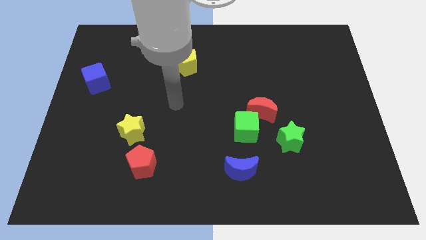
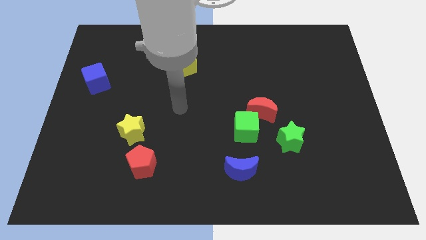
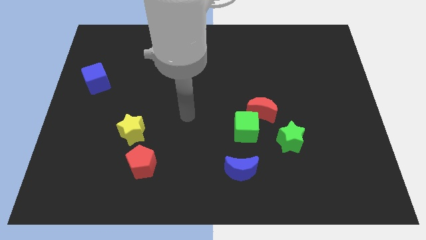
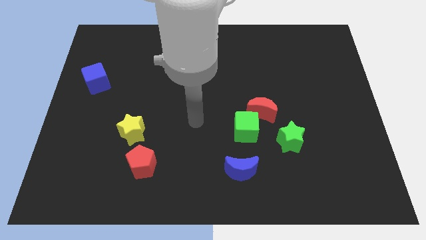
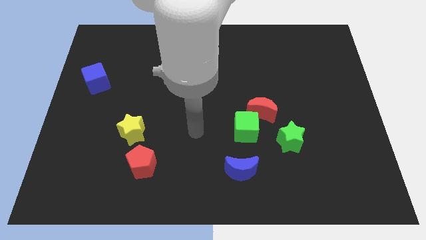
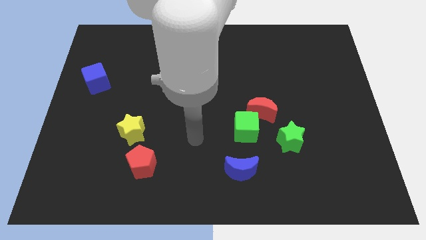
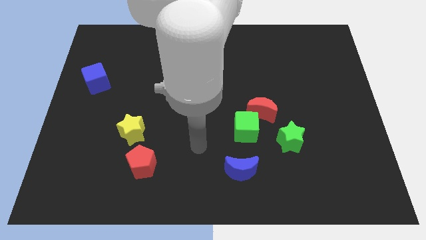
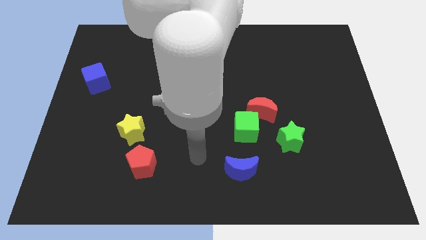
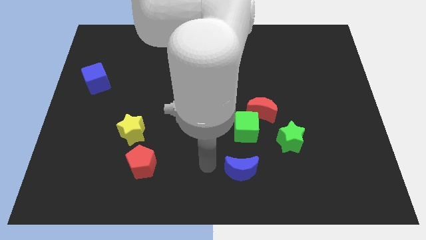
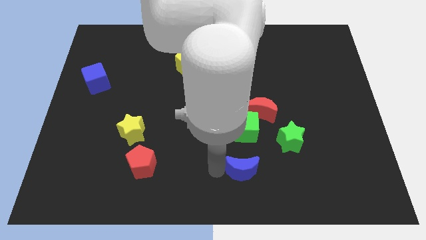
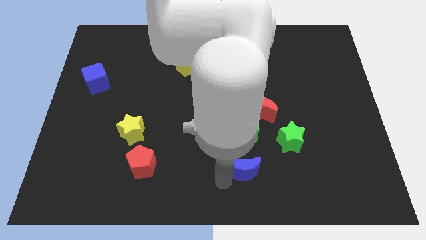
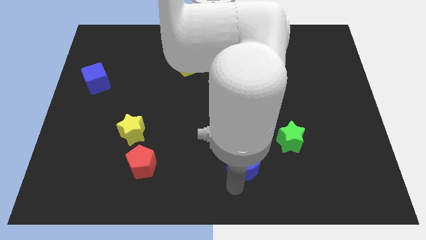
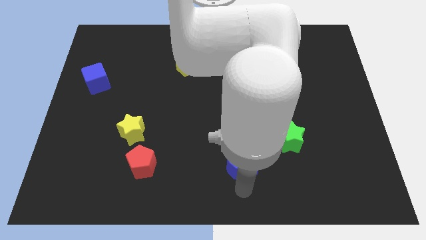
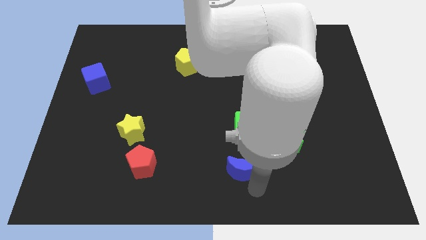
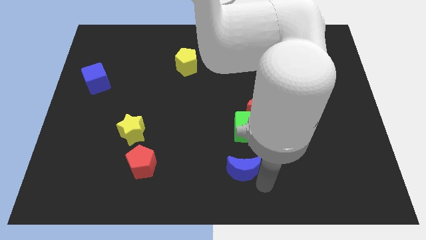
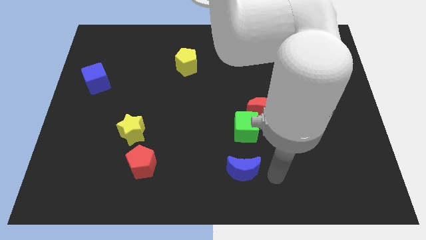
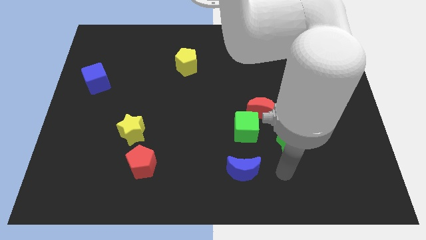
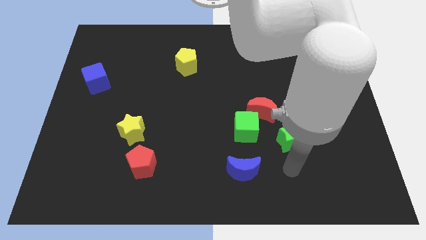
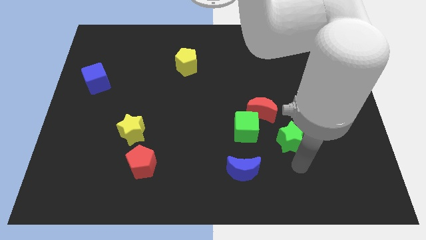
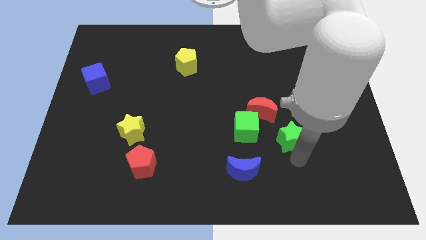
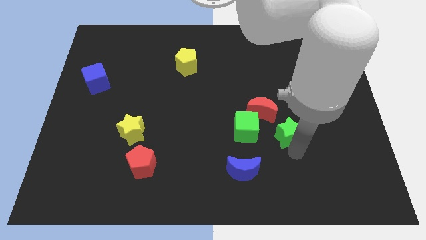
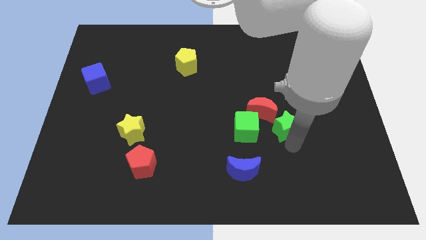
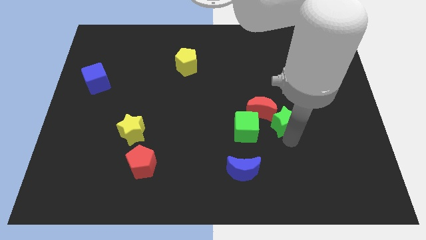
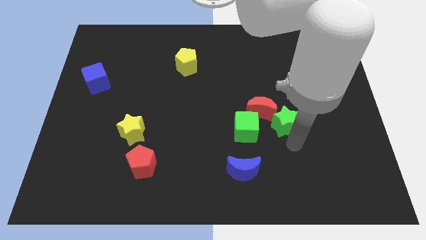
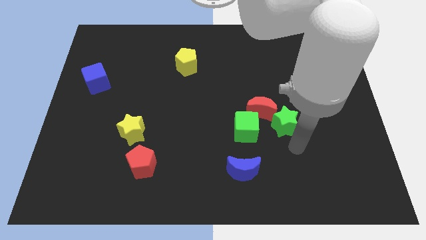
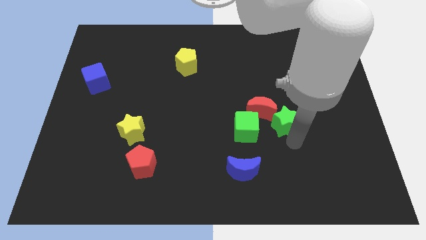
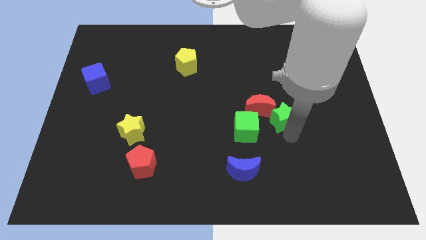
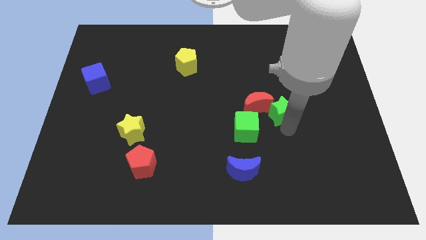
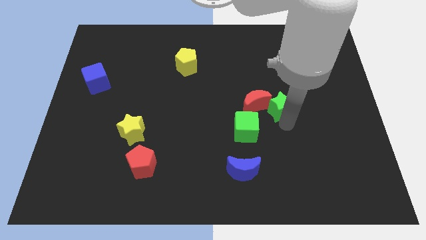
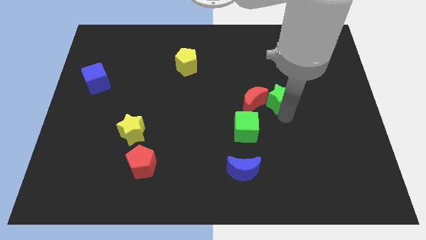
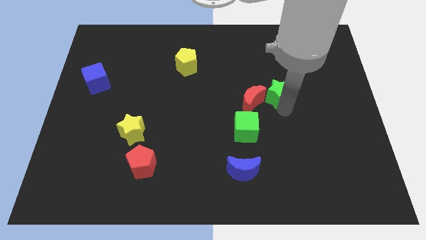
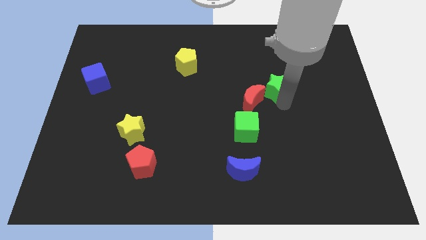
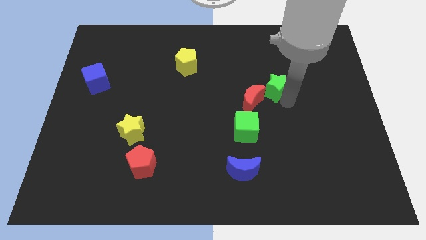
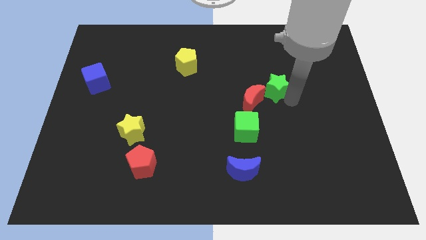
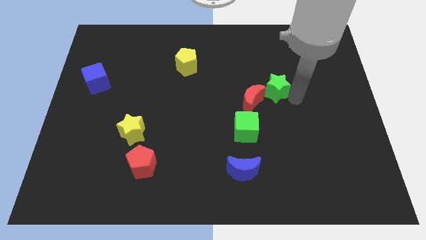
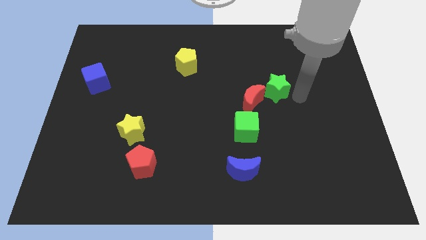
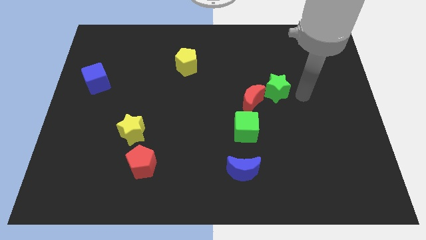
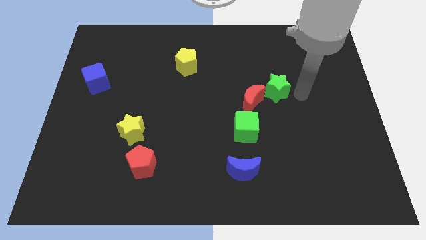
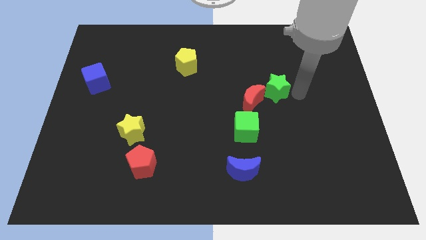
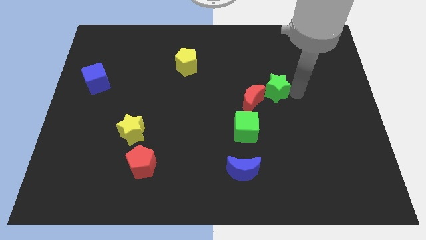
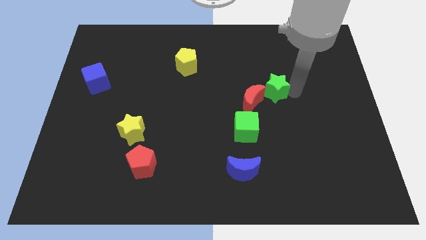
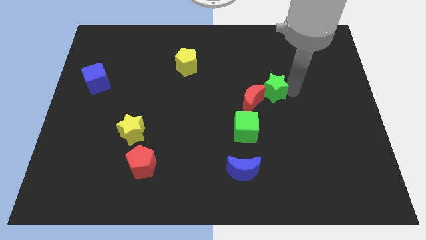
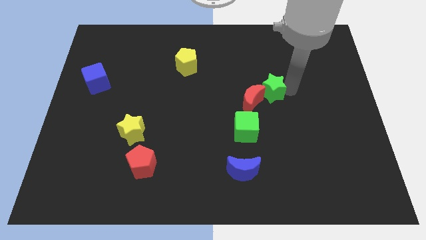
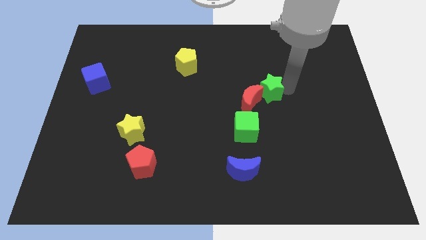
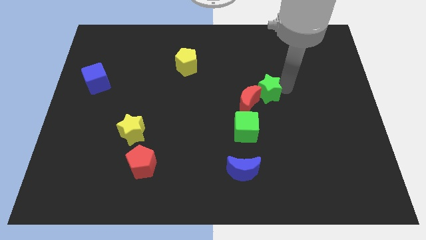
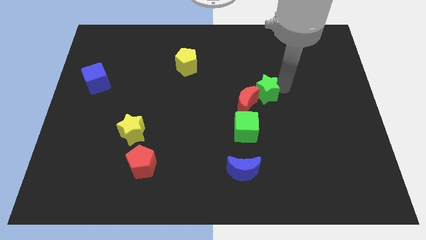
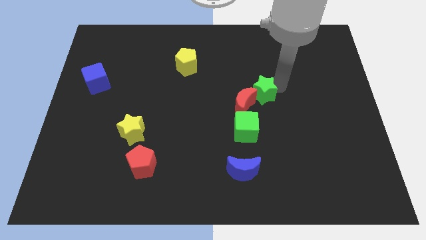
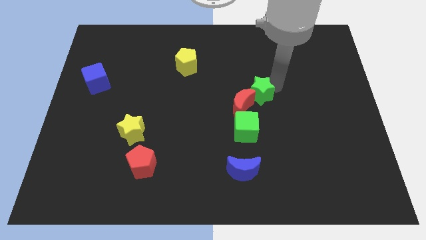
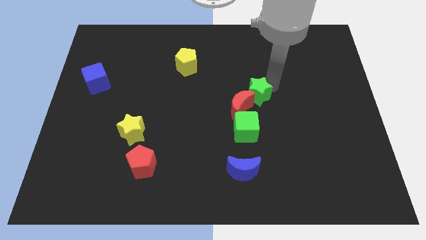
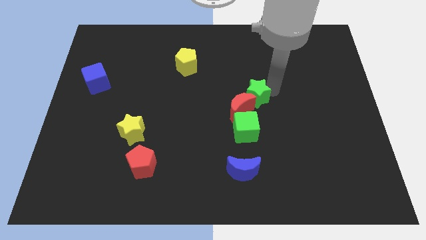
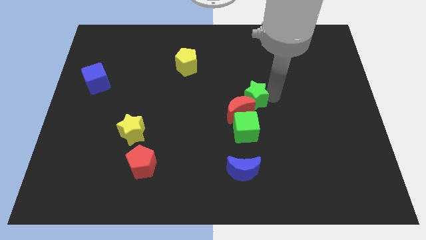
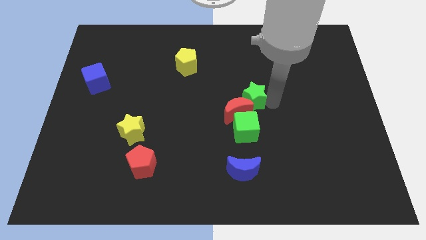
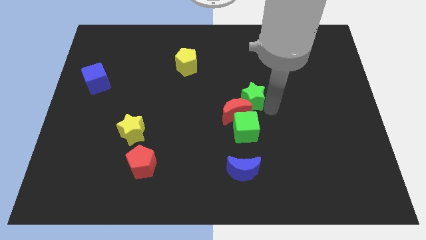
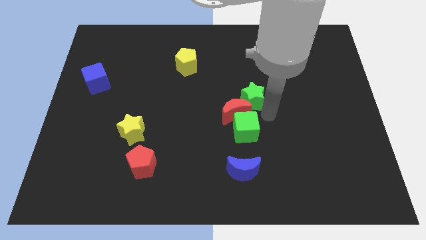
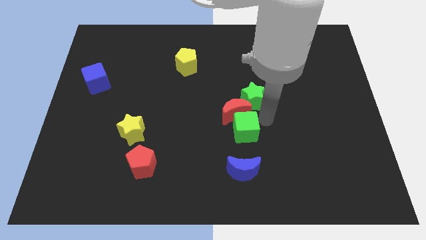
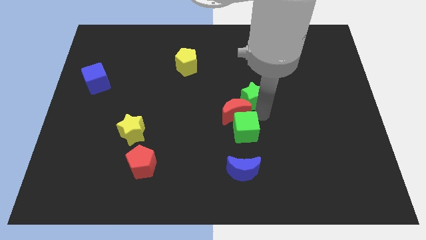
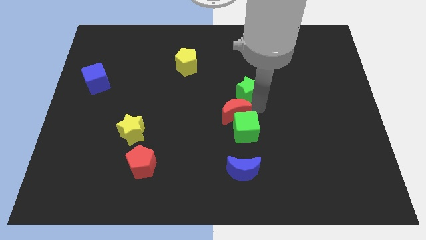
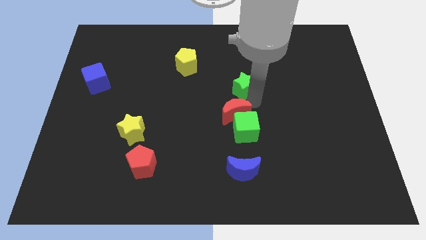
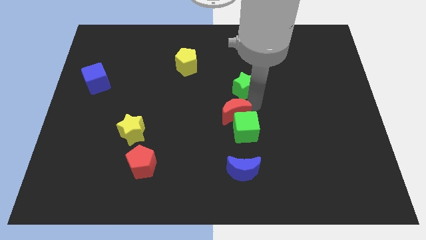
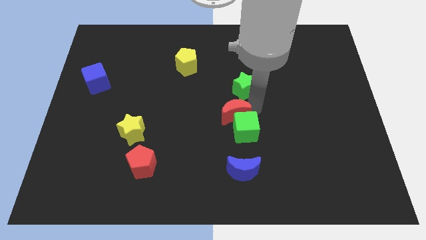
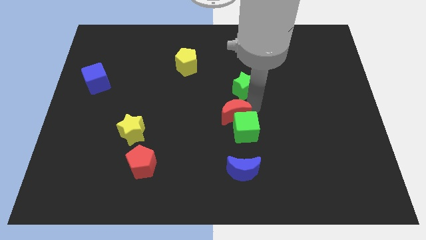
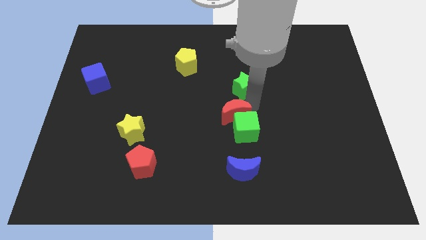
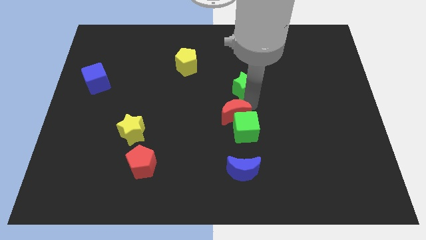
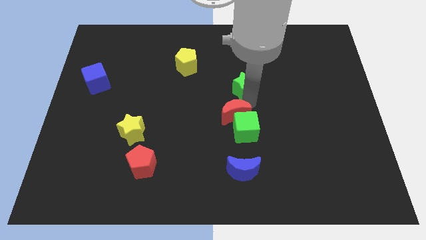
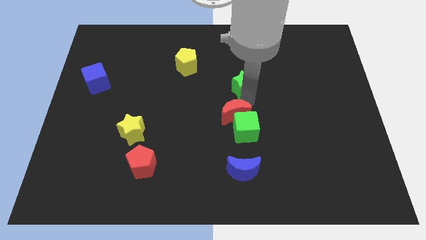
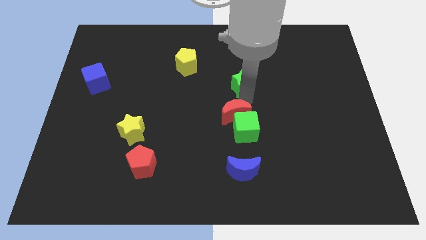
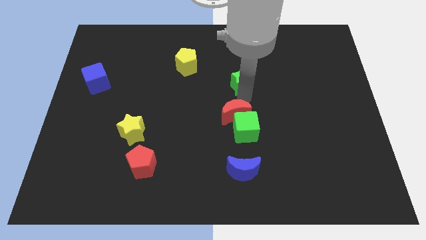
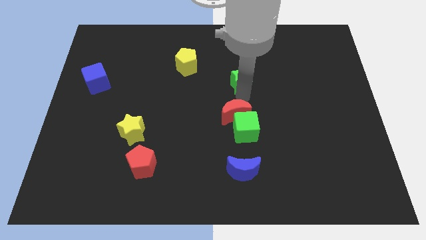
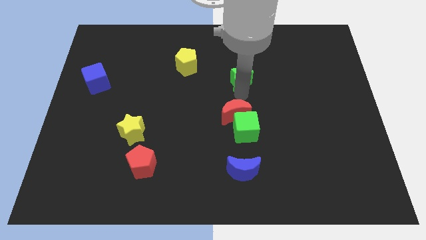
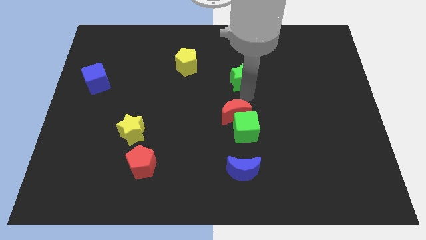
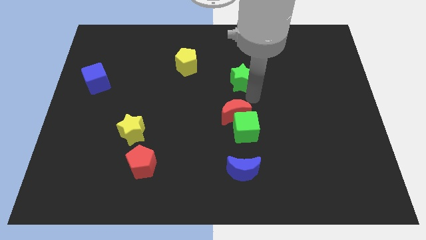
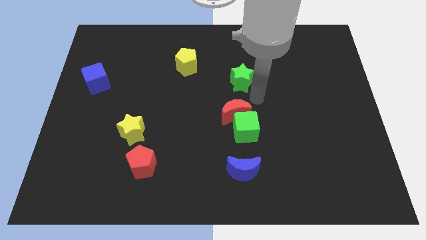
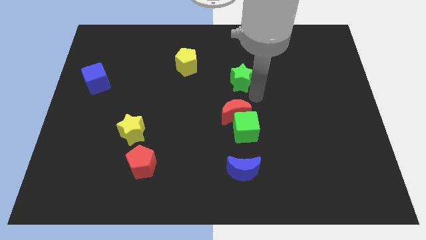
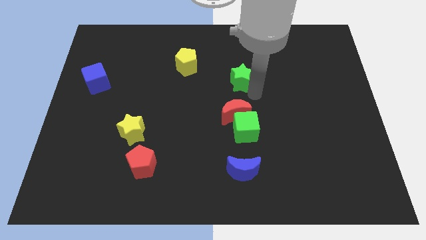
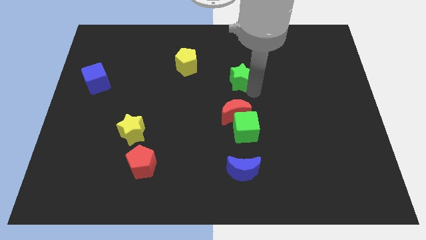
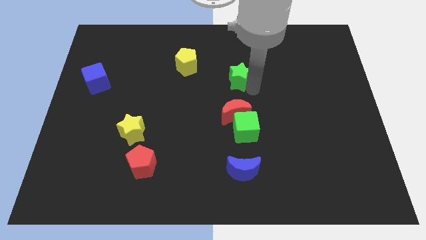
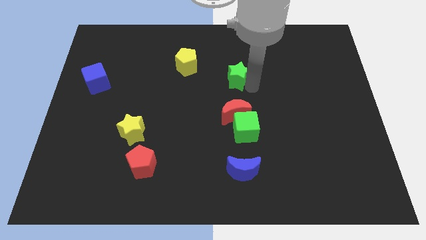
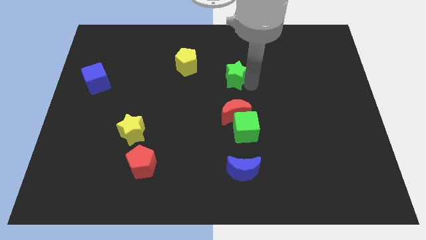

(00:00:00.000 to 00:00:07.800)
move the green star to the right of the yellow pentagon
